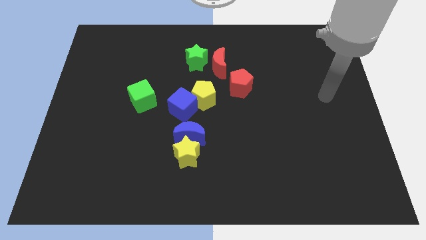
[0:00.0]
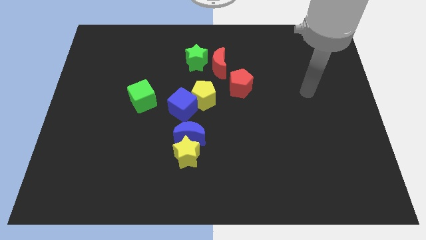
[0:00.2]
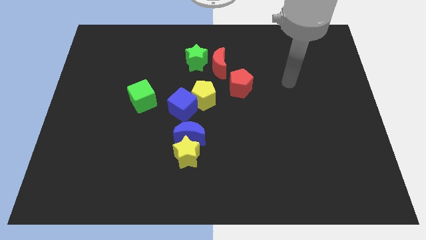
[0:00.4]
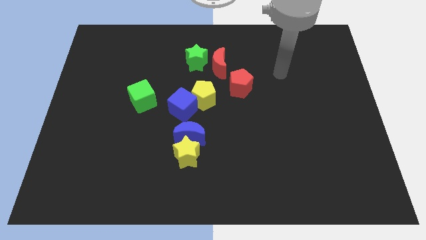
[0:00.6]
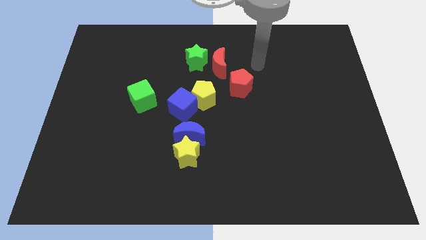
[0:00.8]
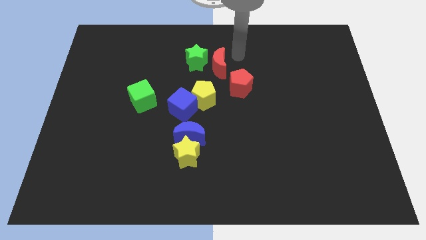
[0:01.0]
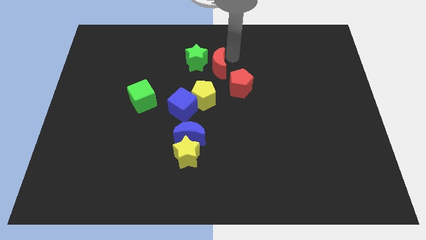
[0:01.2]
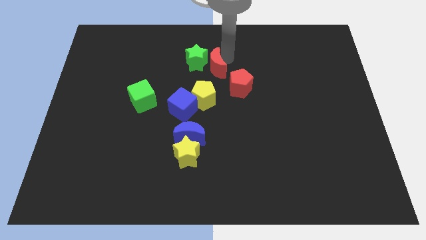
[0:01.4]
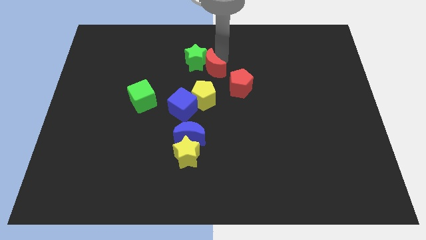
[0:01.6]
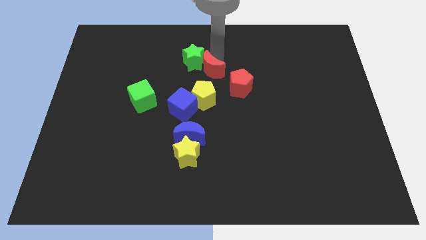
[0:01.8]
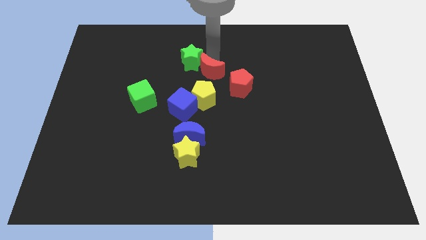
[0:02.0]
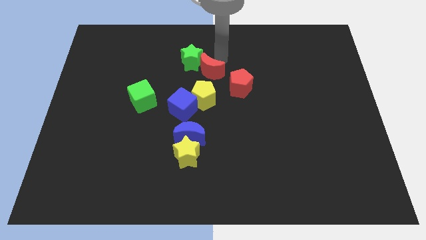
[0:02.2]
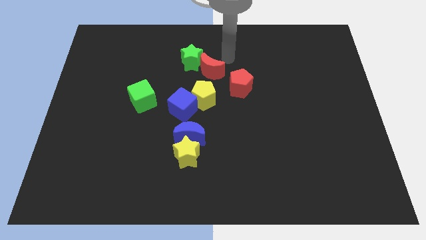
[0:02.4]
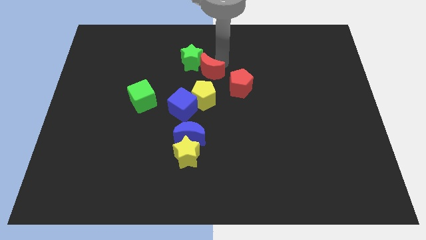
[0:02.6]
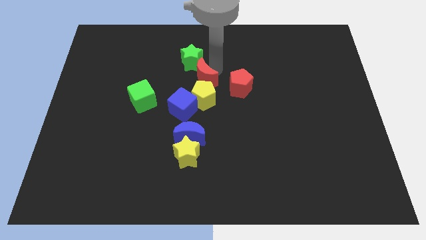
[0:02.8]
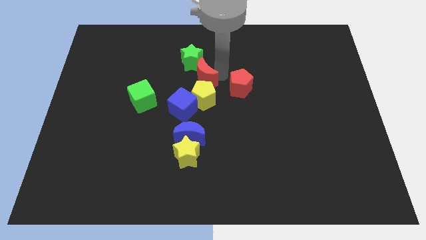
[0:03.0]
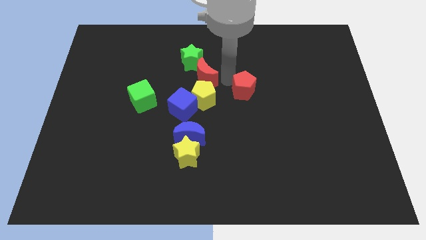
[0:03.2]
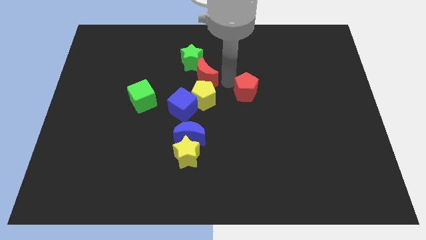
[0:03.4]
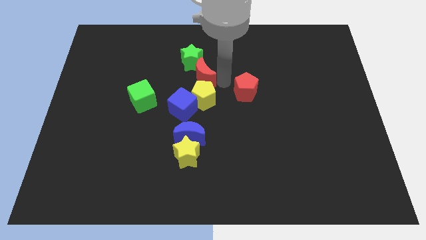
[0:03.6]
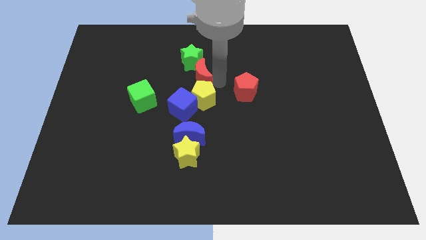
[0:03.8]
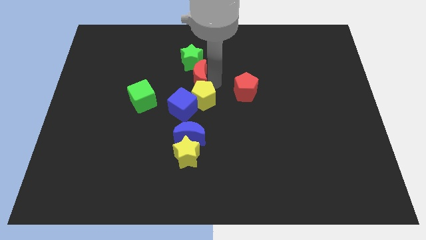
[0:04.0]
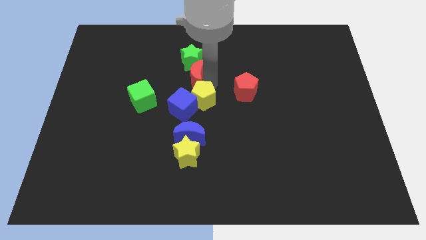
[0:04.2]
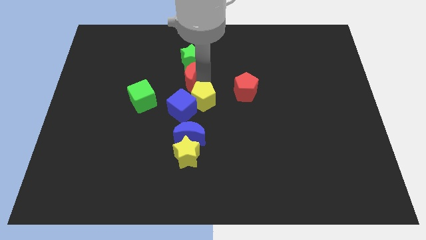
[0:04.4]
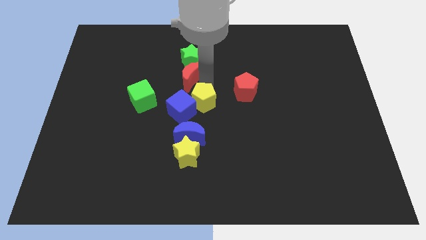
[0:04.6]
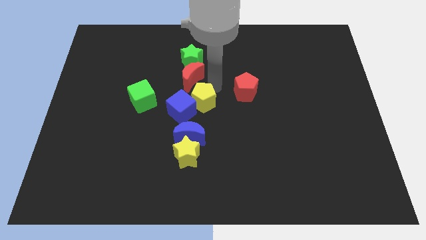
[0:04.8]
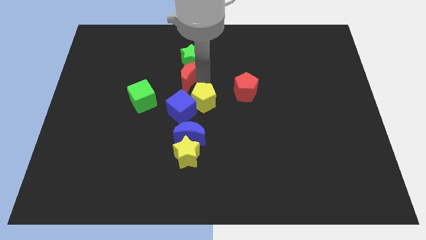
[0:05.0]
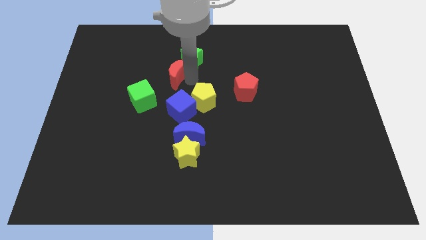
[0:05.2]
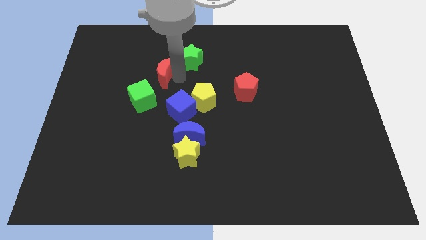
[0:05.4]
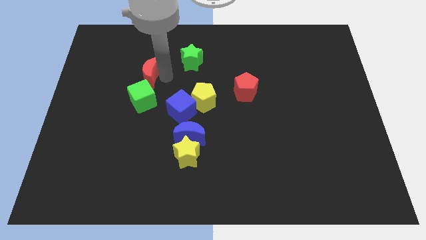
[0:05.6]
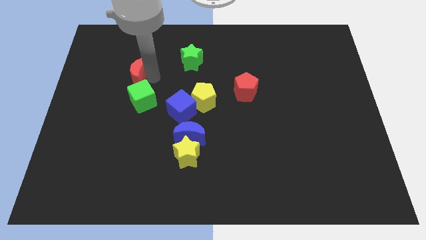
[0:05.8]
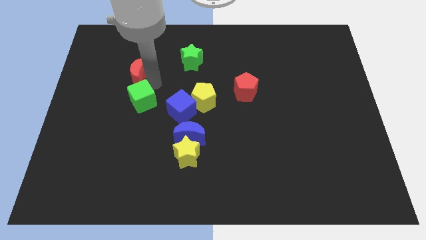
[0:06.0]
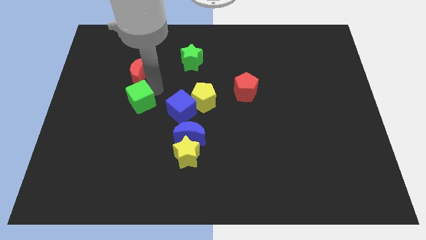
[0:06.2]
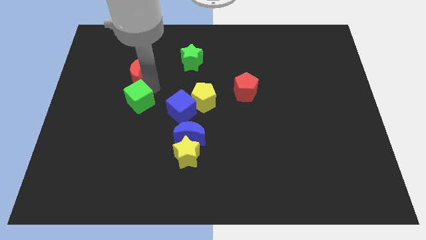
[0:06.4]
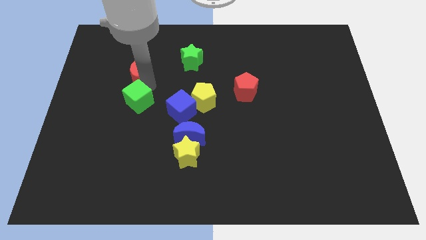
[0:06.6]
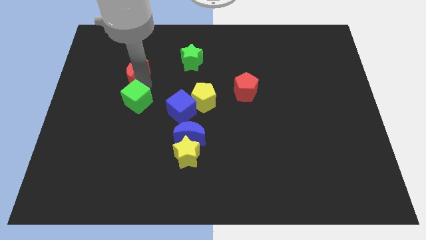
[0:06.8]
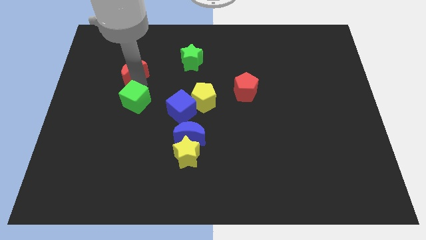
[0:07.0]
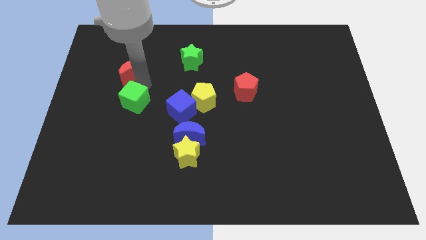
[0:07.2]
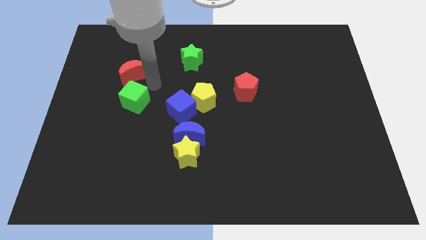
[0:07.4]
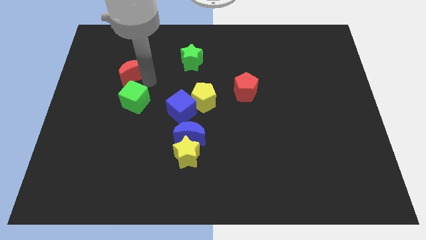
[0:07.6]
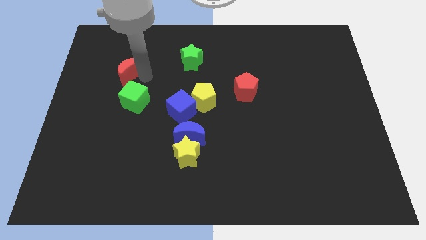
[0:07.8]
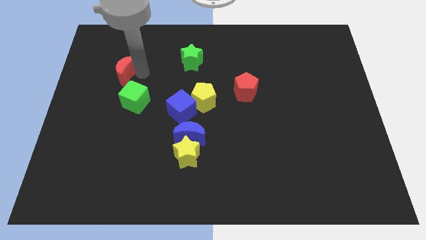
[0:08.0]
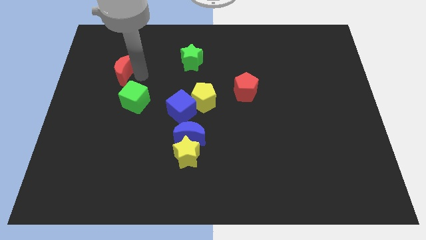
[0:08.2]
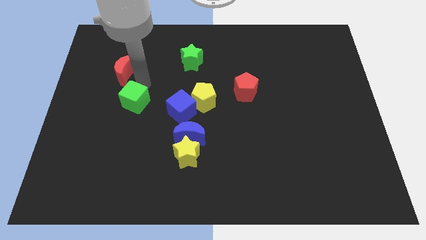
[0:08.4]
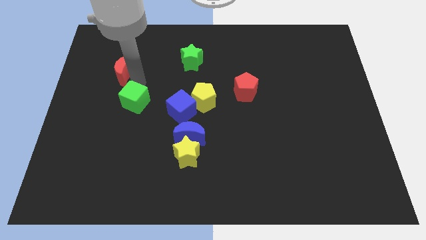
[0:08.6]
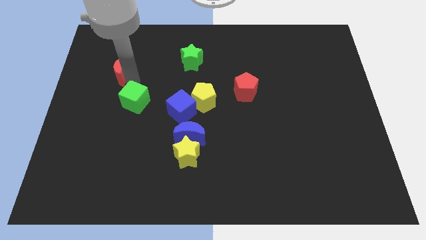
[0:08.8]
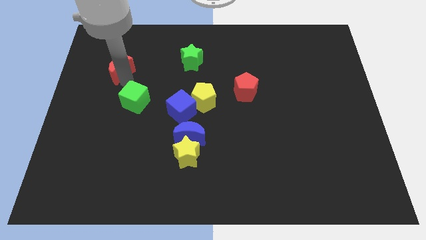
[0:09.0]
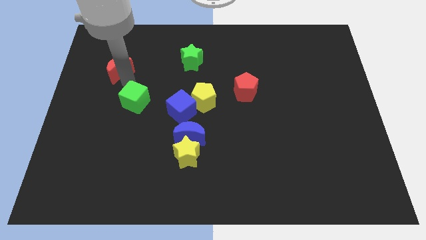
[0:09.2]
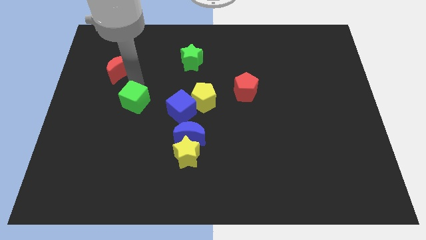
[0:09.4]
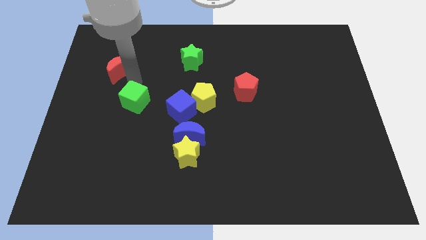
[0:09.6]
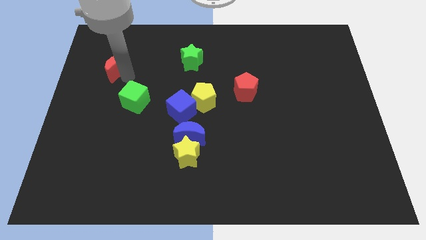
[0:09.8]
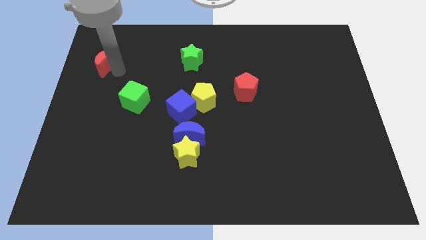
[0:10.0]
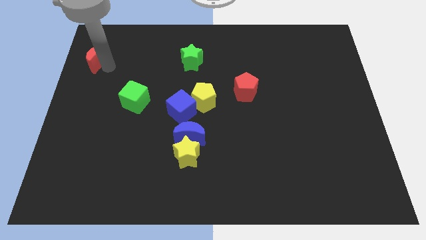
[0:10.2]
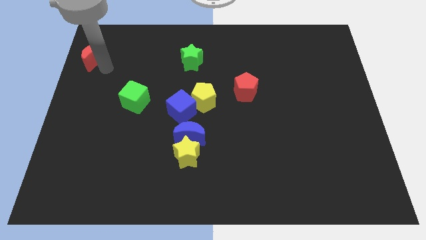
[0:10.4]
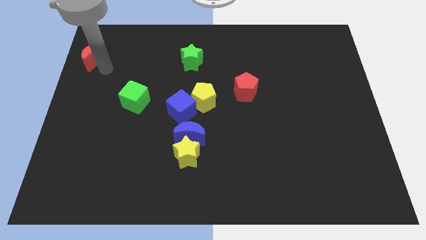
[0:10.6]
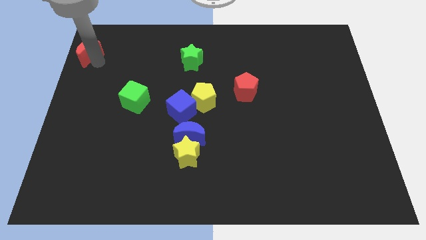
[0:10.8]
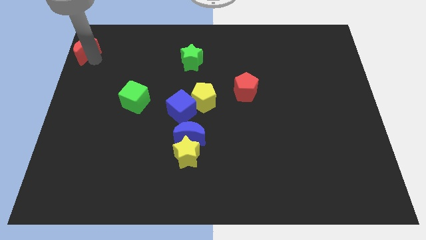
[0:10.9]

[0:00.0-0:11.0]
put the red moon to the upper left corner

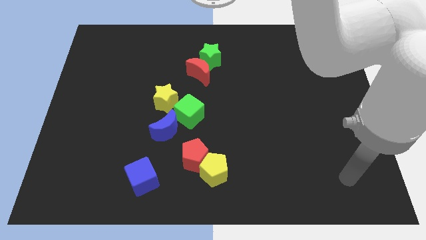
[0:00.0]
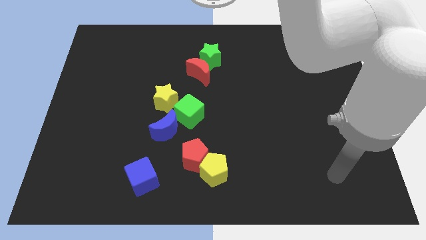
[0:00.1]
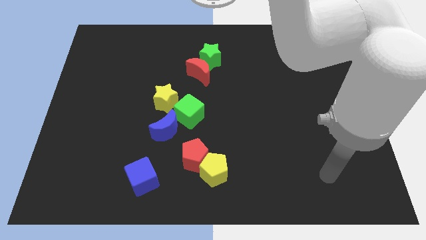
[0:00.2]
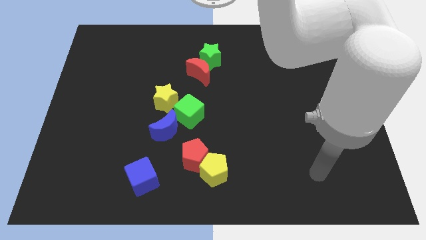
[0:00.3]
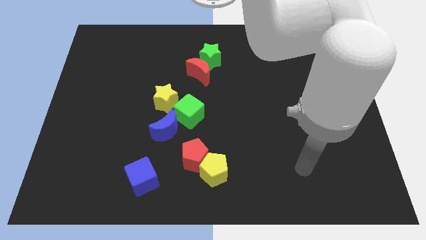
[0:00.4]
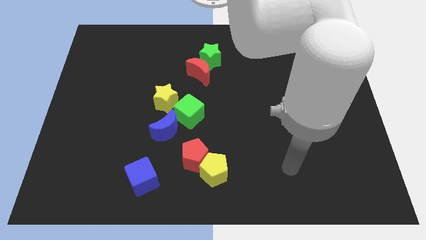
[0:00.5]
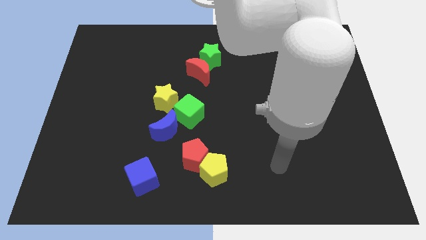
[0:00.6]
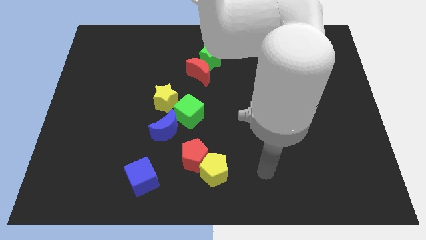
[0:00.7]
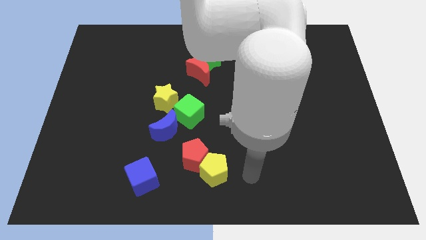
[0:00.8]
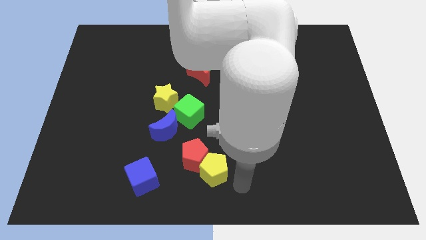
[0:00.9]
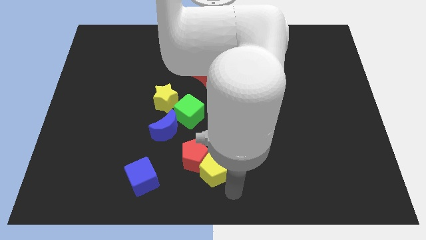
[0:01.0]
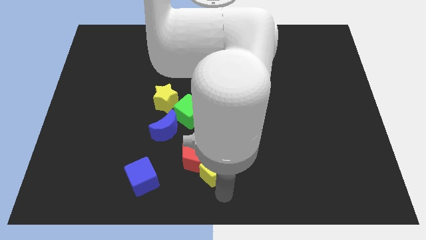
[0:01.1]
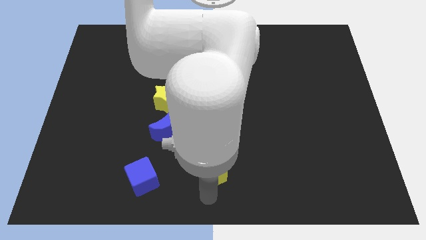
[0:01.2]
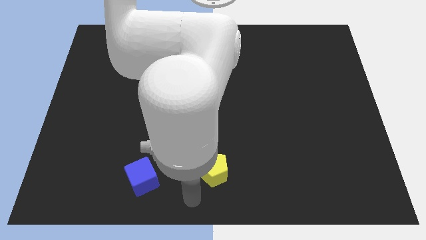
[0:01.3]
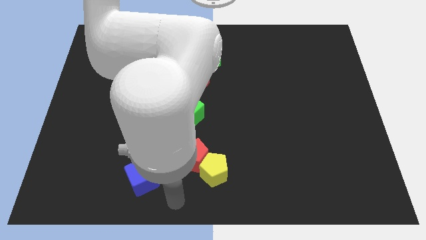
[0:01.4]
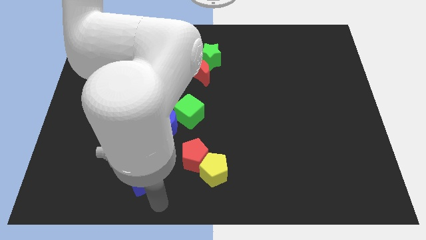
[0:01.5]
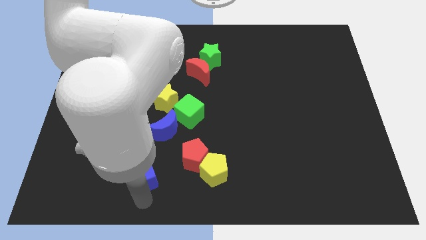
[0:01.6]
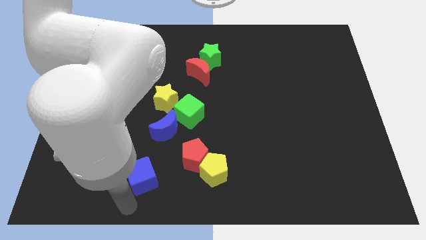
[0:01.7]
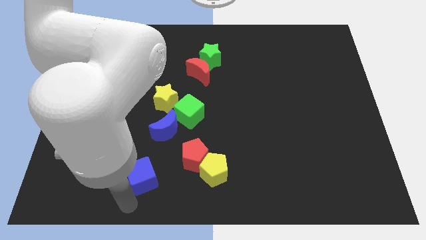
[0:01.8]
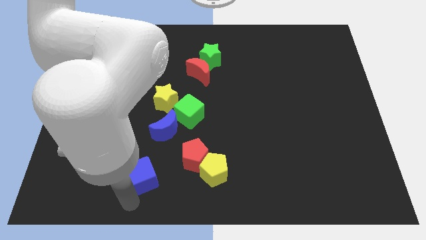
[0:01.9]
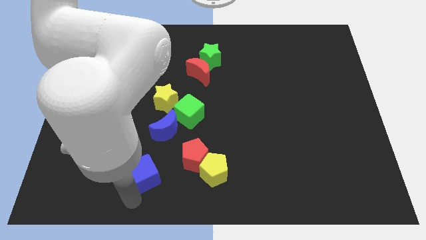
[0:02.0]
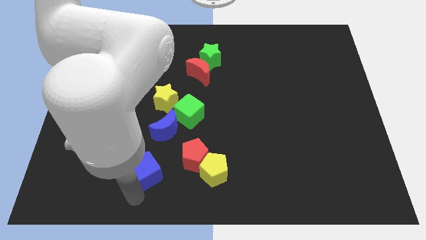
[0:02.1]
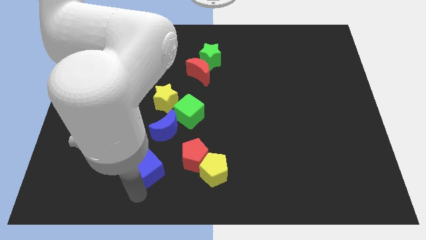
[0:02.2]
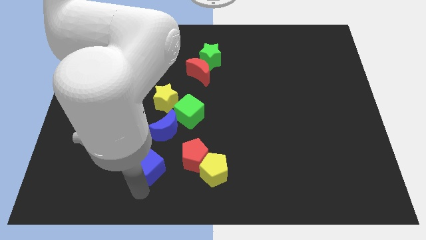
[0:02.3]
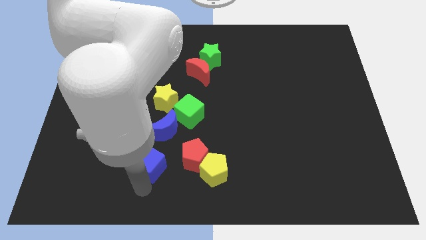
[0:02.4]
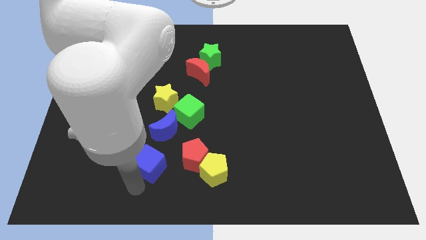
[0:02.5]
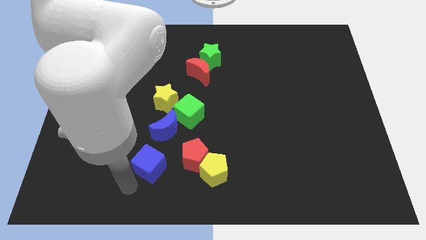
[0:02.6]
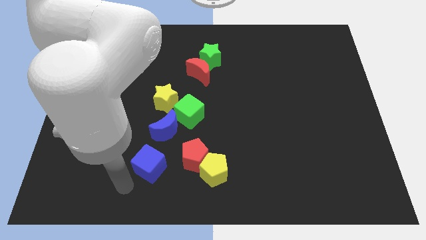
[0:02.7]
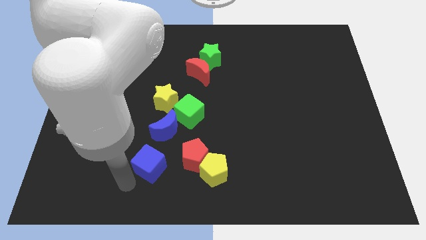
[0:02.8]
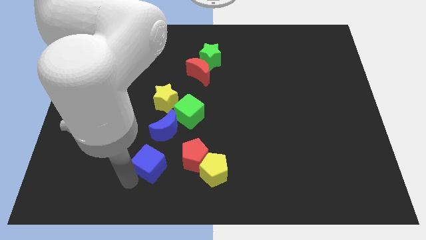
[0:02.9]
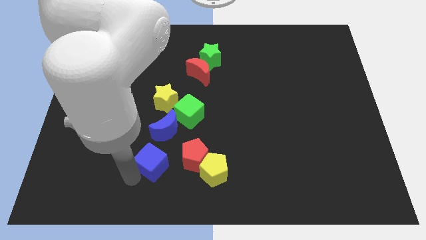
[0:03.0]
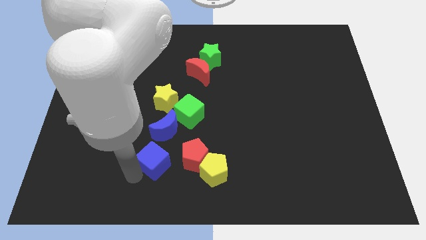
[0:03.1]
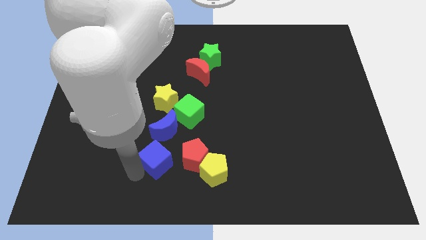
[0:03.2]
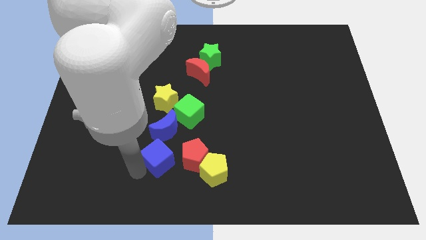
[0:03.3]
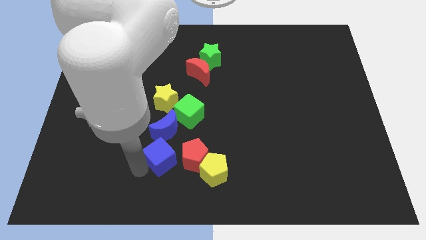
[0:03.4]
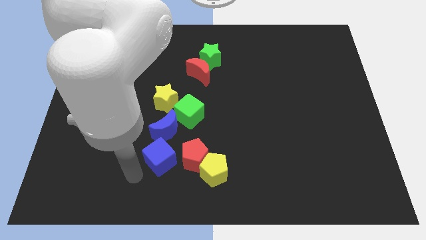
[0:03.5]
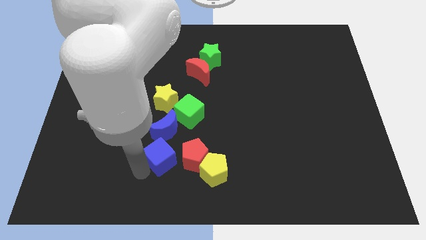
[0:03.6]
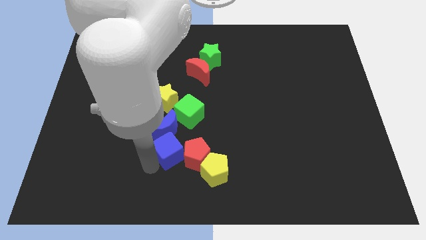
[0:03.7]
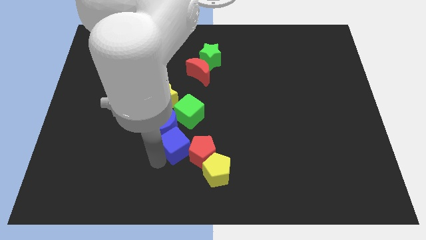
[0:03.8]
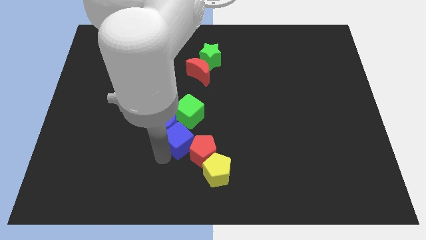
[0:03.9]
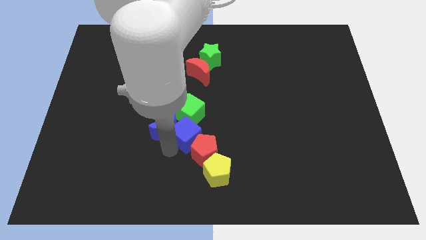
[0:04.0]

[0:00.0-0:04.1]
slide the blue cube to the center
